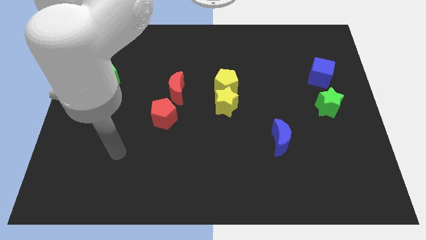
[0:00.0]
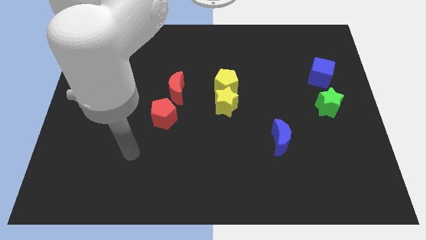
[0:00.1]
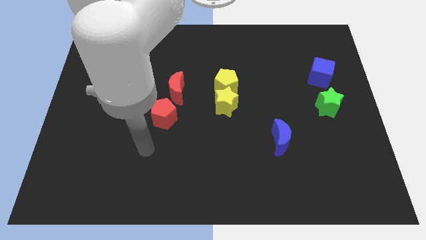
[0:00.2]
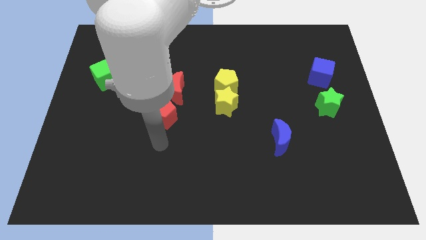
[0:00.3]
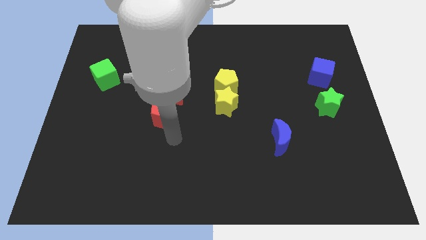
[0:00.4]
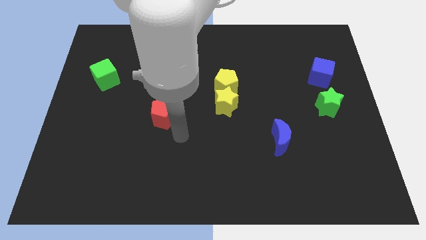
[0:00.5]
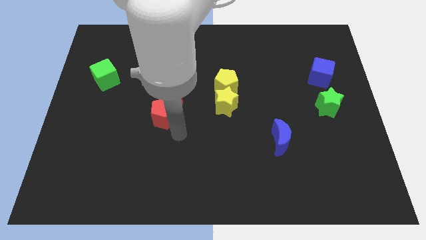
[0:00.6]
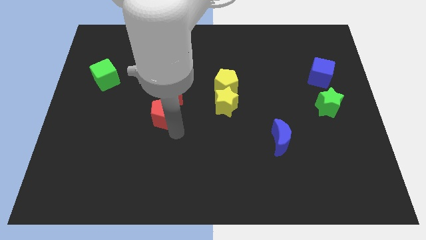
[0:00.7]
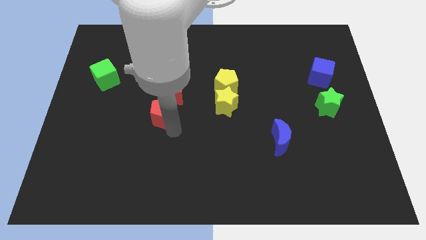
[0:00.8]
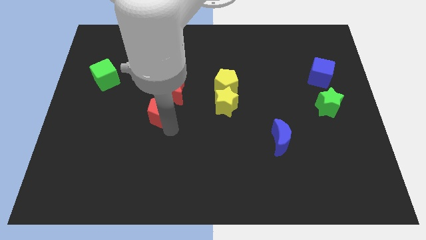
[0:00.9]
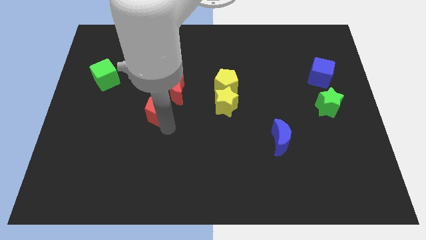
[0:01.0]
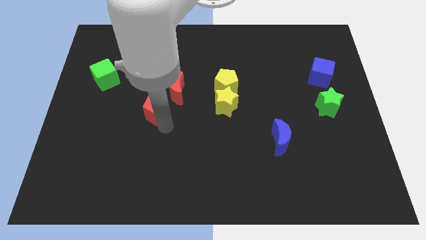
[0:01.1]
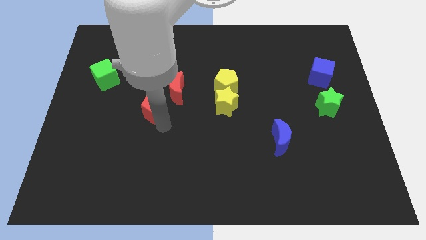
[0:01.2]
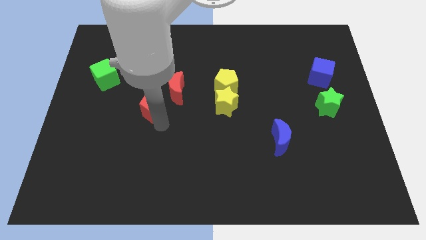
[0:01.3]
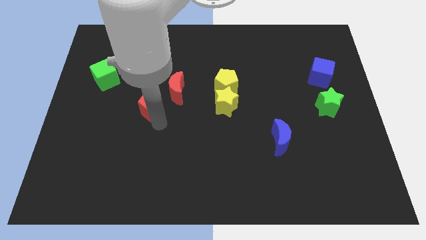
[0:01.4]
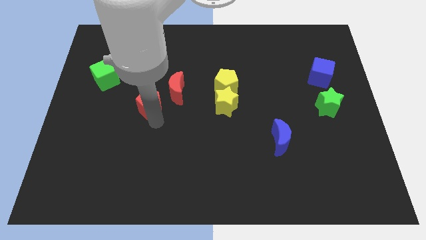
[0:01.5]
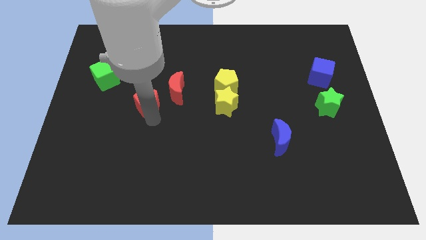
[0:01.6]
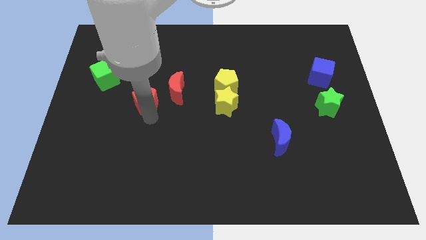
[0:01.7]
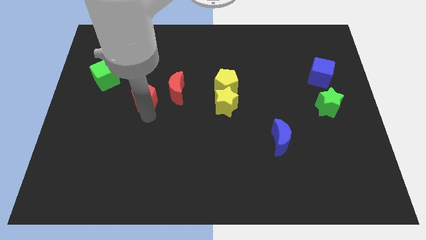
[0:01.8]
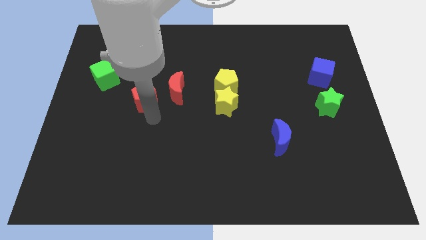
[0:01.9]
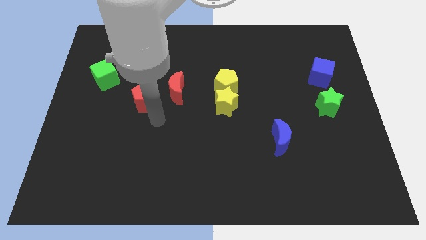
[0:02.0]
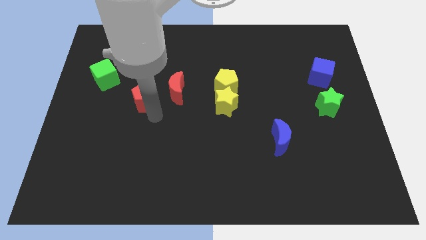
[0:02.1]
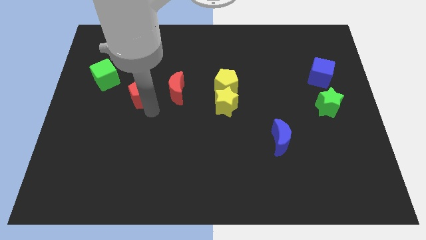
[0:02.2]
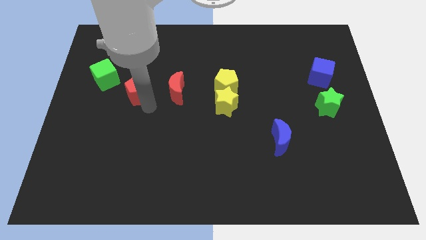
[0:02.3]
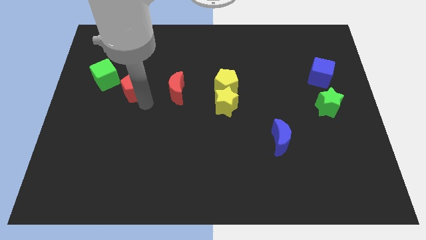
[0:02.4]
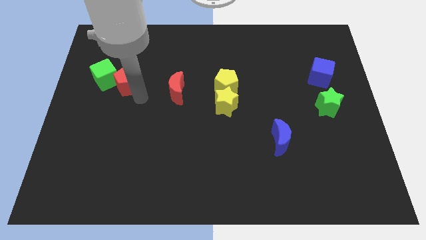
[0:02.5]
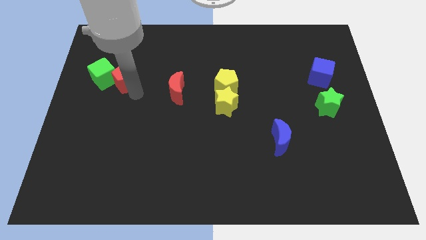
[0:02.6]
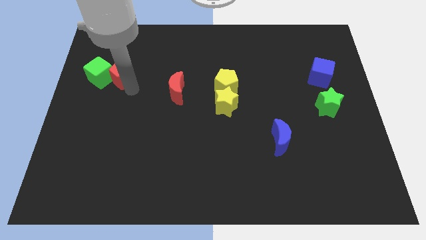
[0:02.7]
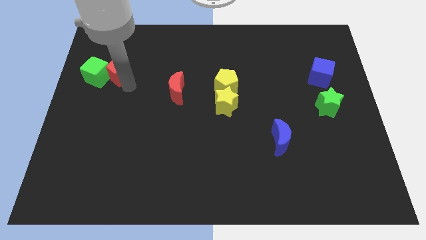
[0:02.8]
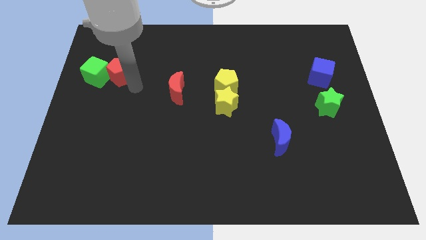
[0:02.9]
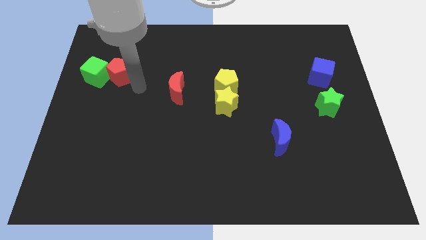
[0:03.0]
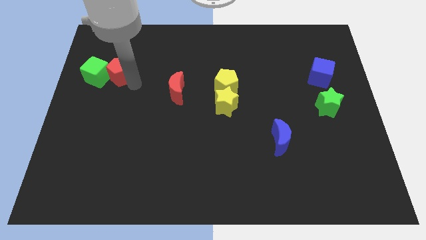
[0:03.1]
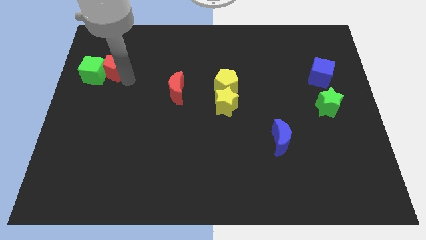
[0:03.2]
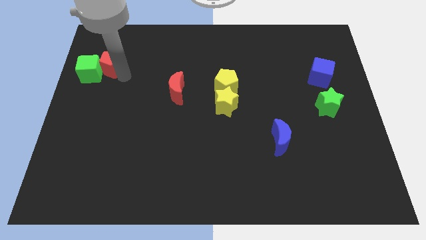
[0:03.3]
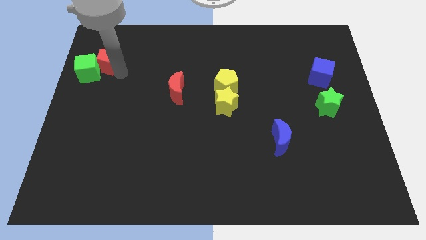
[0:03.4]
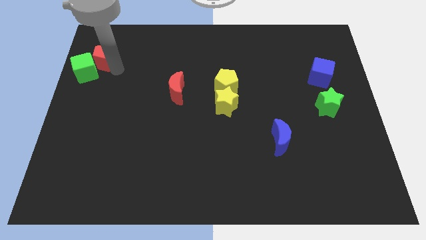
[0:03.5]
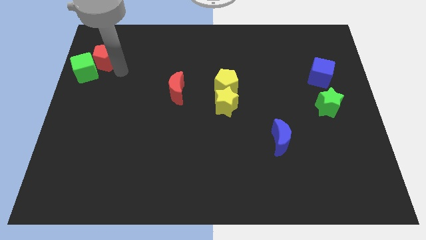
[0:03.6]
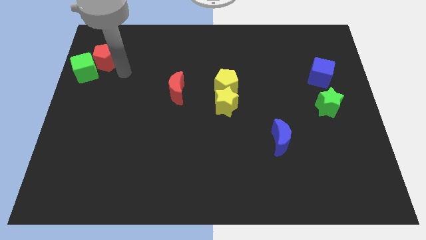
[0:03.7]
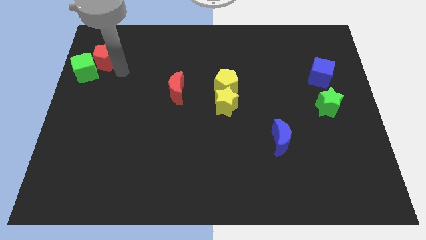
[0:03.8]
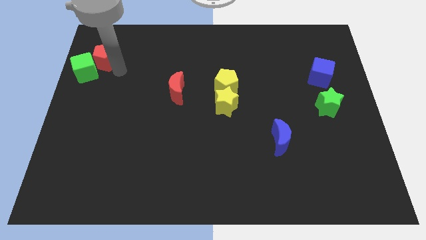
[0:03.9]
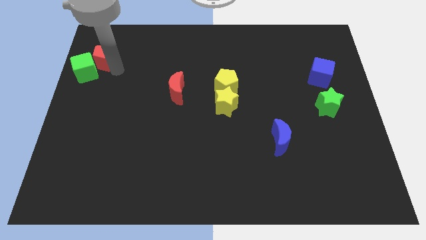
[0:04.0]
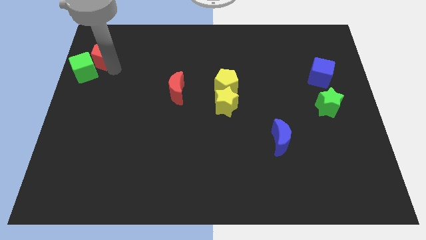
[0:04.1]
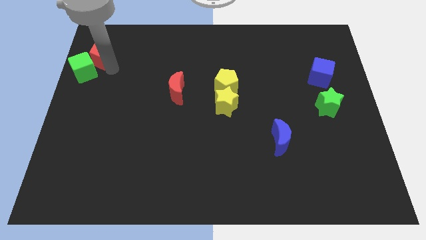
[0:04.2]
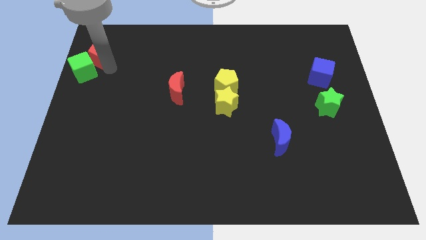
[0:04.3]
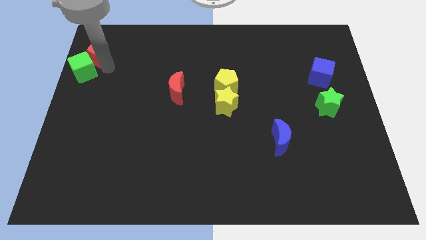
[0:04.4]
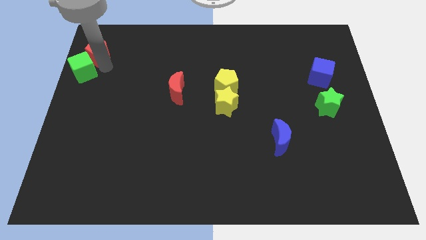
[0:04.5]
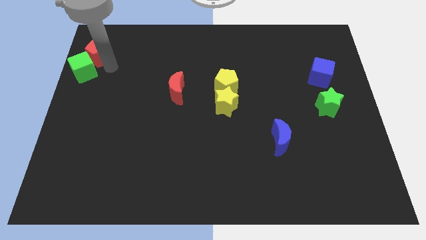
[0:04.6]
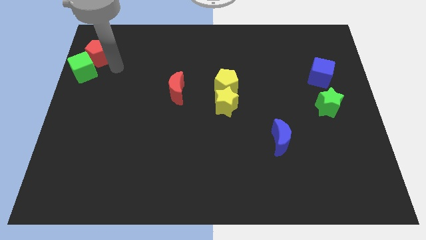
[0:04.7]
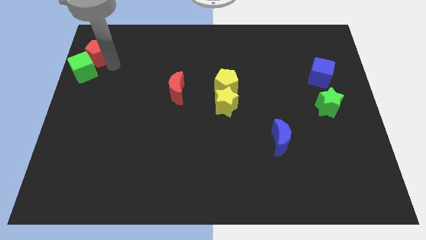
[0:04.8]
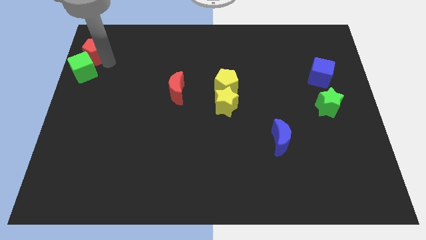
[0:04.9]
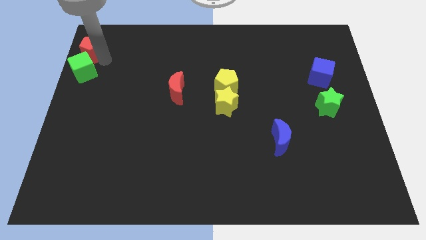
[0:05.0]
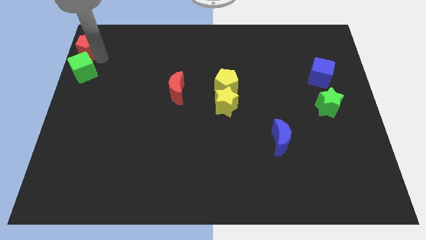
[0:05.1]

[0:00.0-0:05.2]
move the red pentagon to the top left
